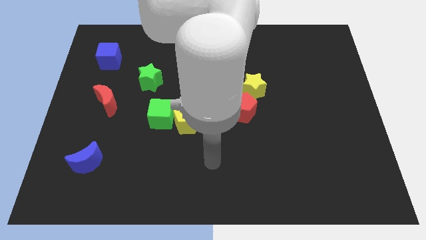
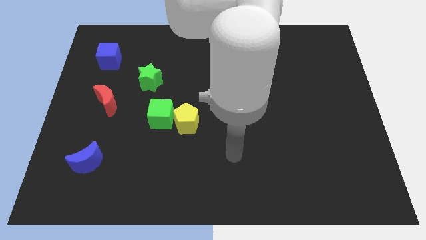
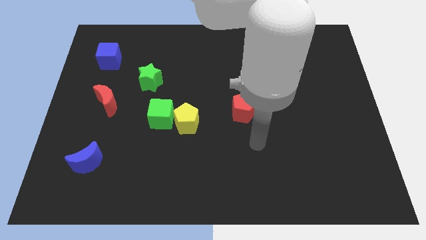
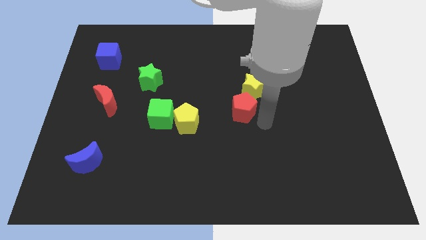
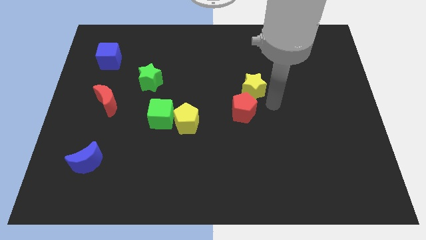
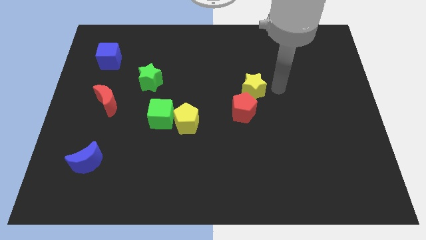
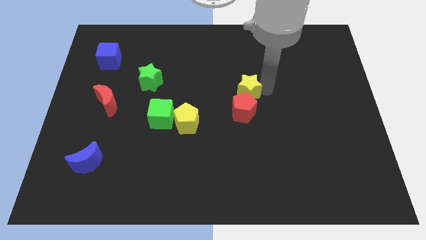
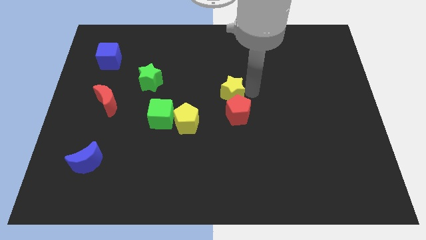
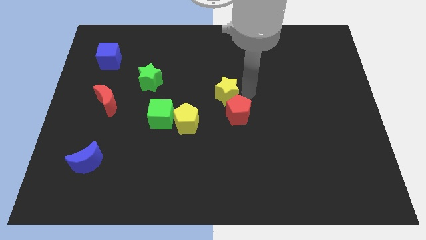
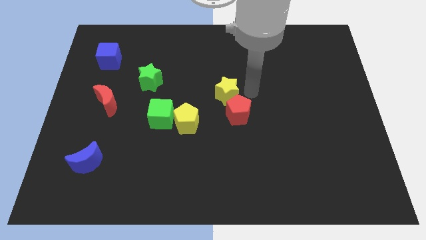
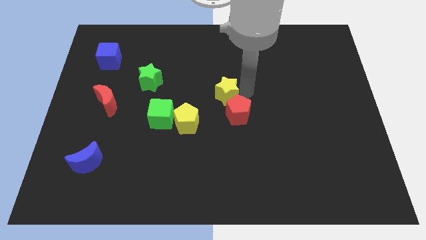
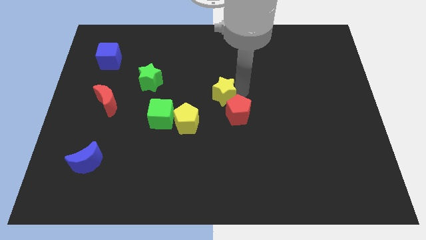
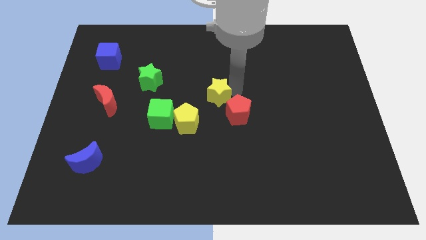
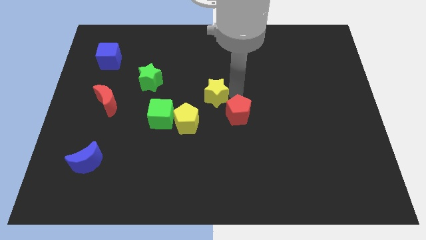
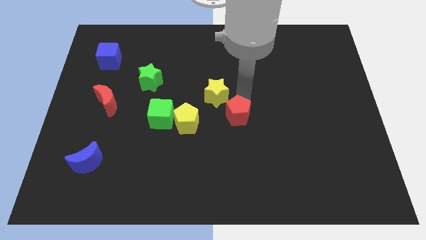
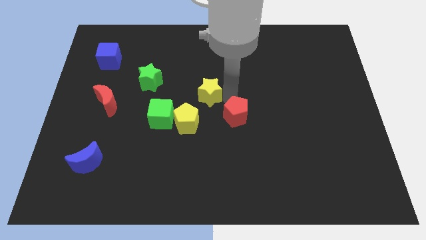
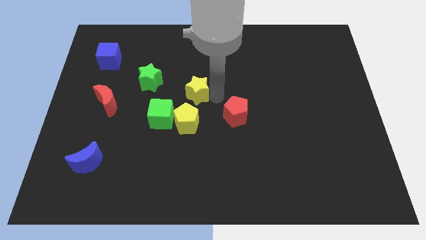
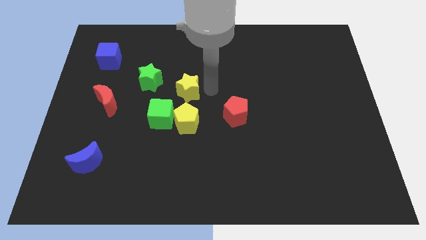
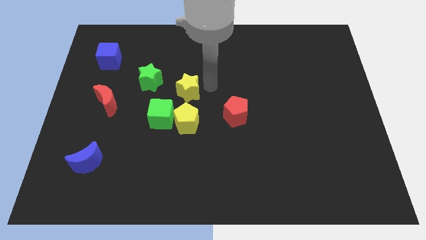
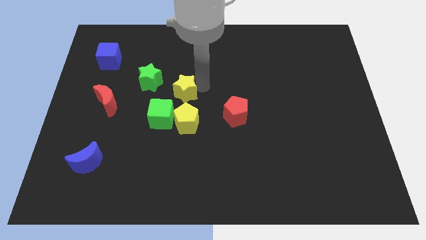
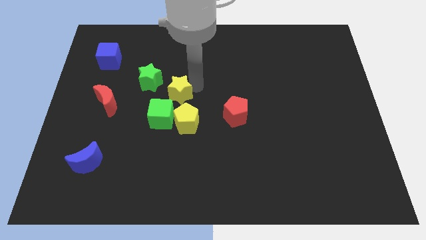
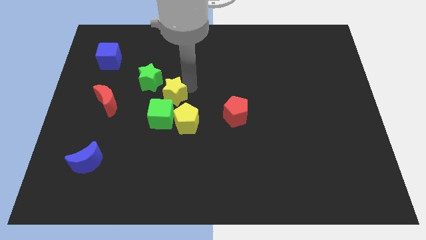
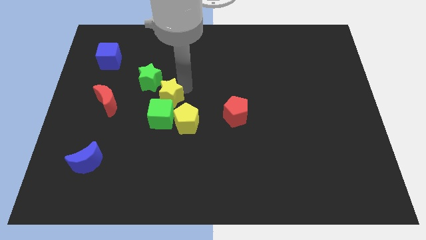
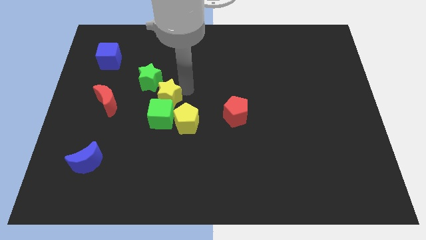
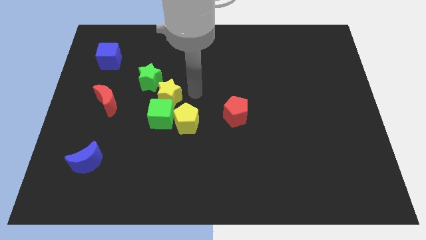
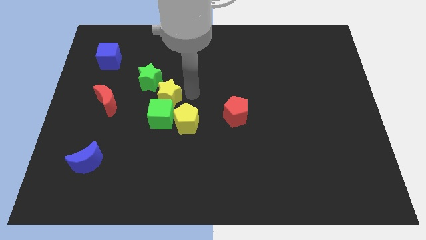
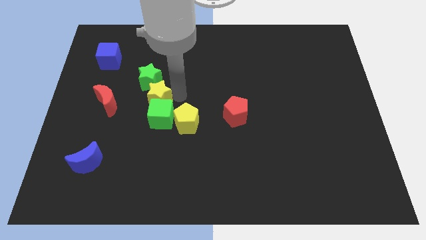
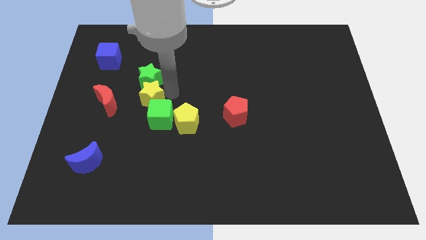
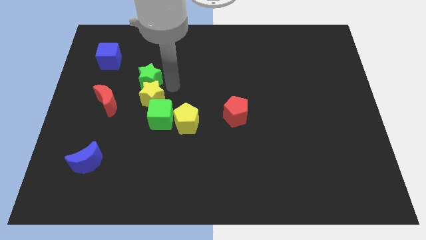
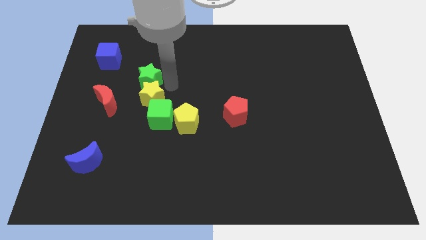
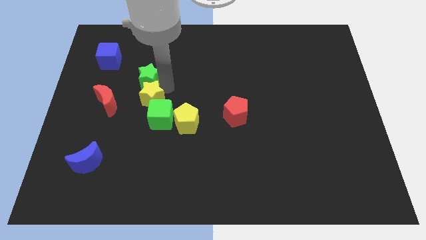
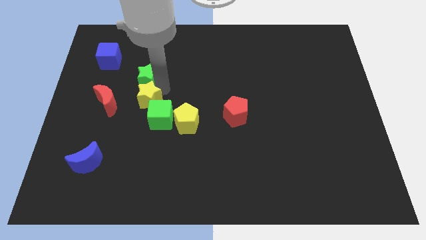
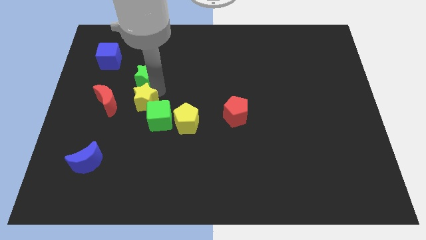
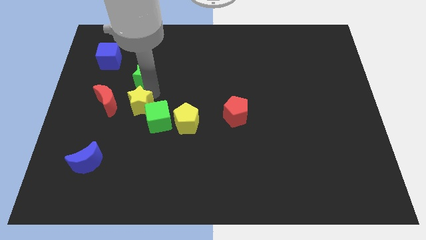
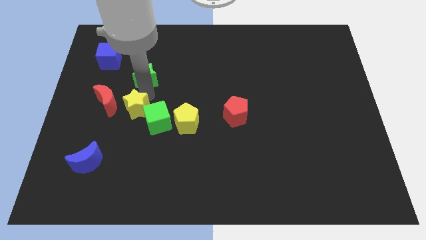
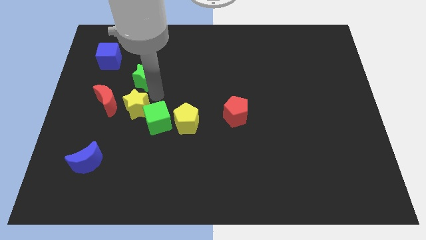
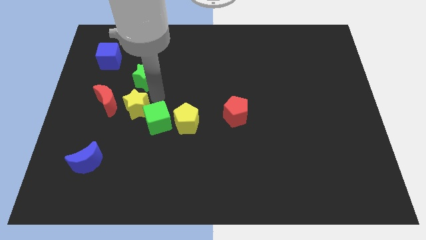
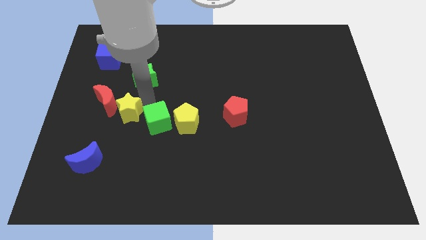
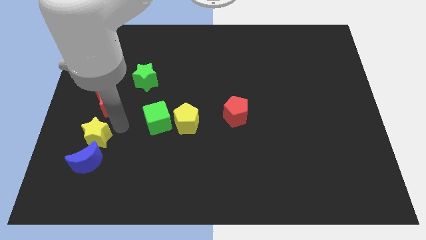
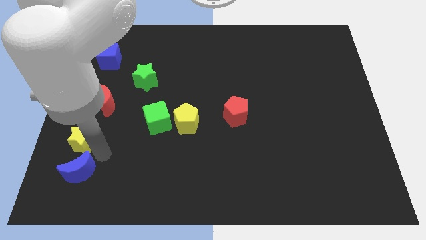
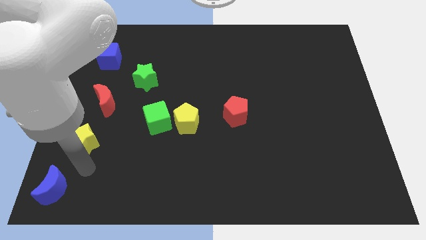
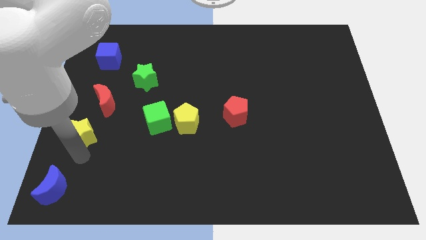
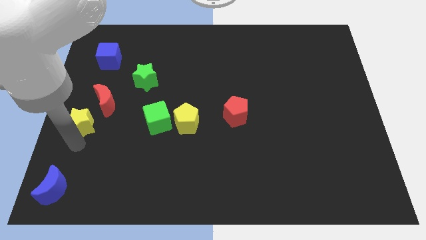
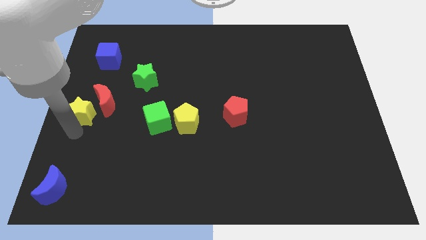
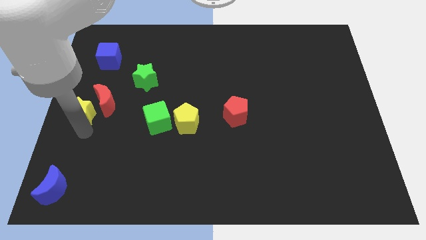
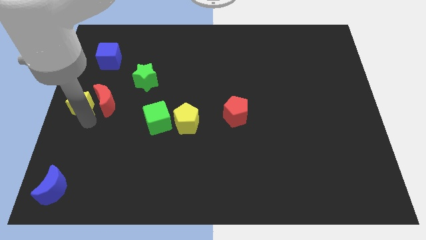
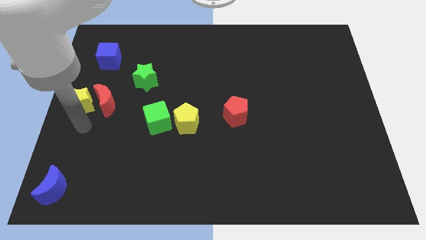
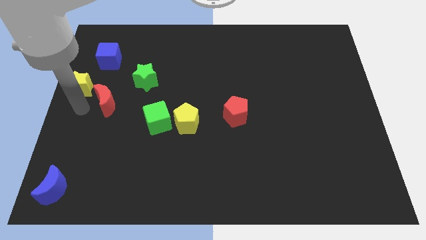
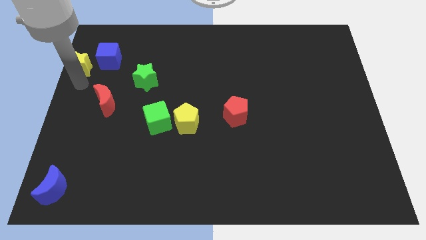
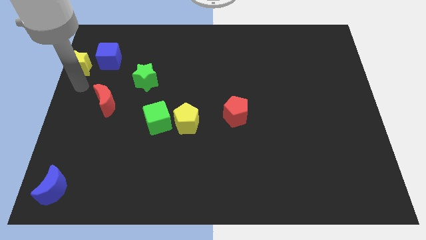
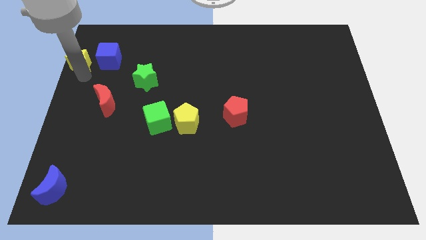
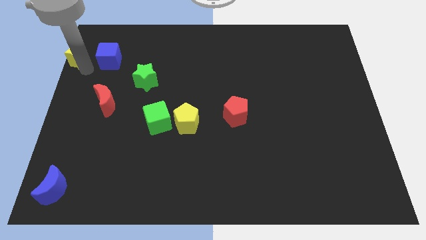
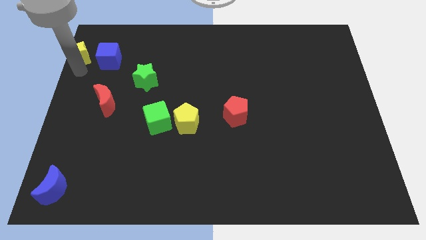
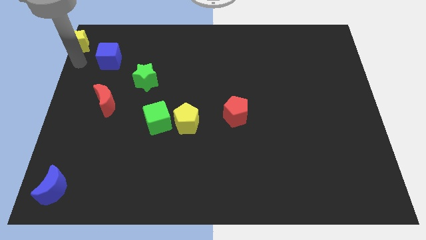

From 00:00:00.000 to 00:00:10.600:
push the yellow star to the top left
